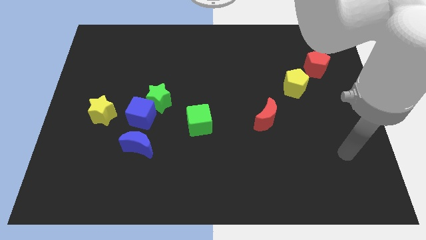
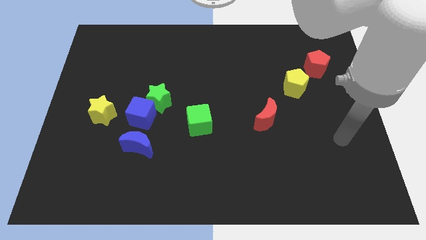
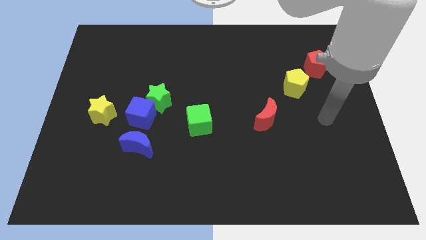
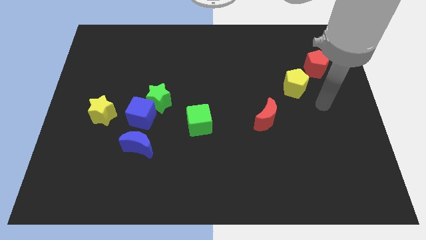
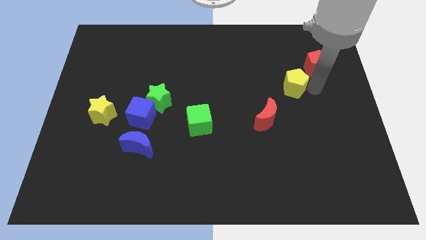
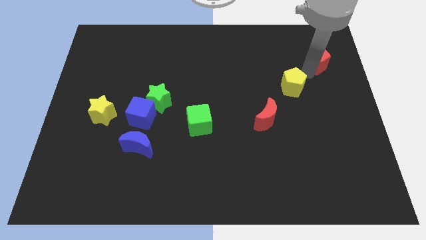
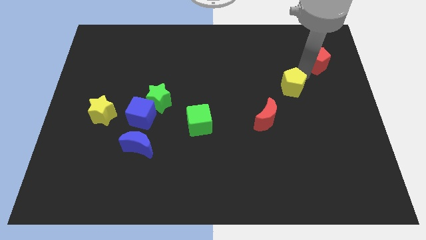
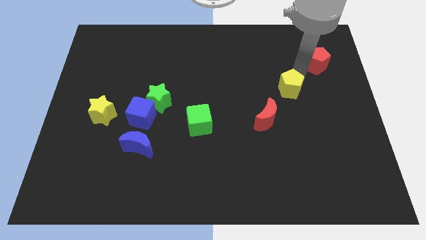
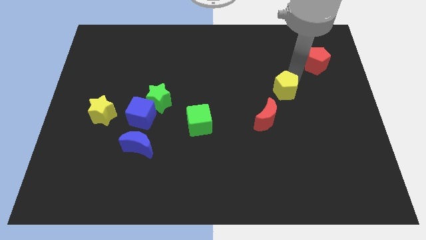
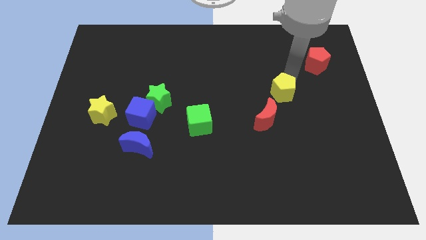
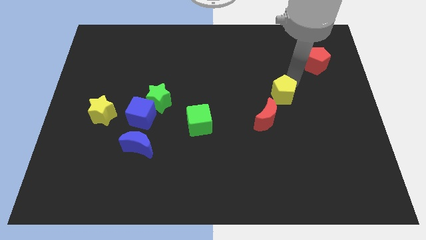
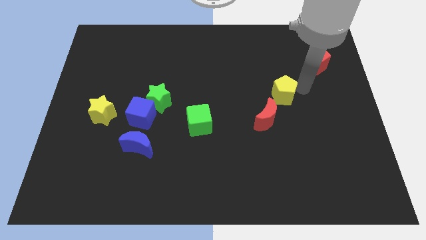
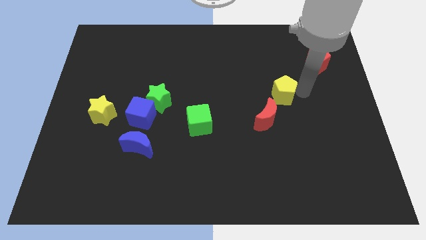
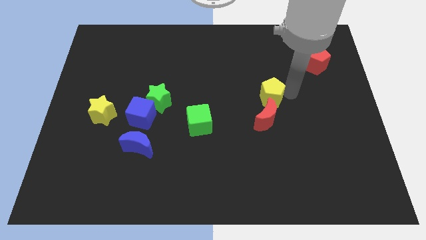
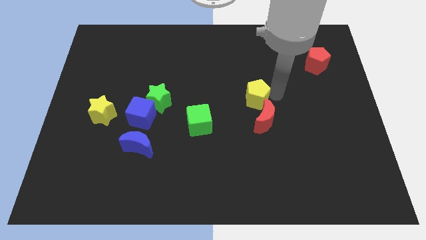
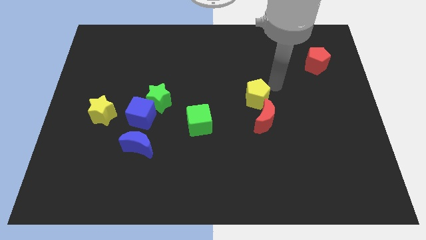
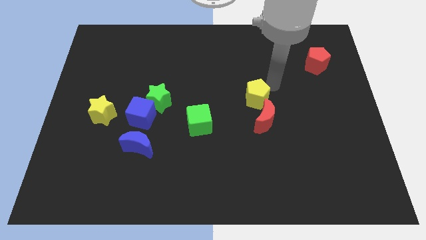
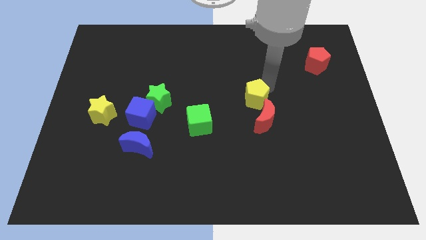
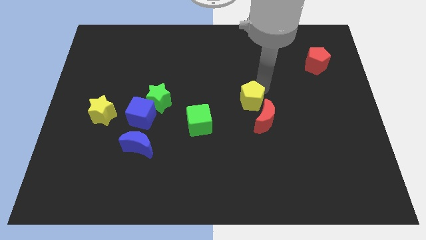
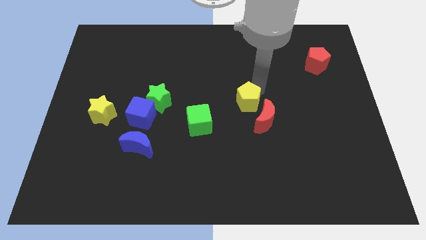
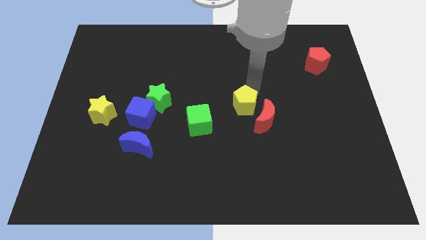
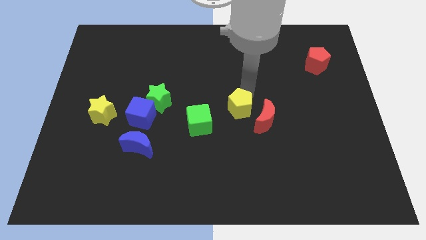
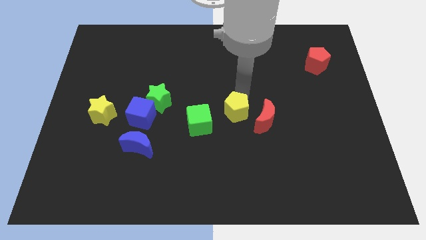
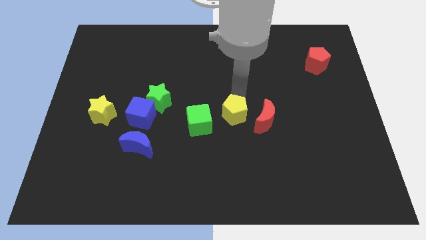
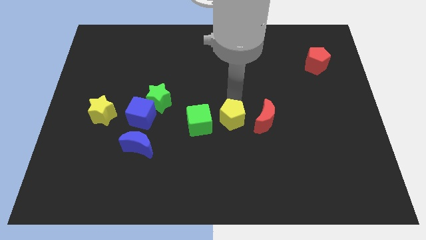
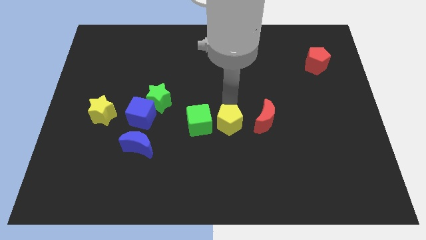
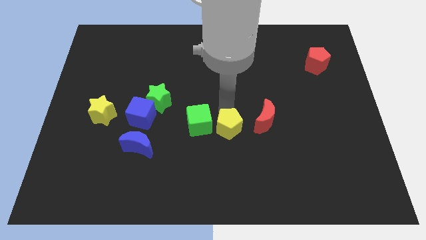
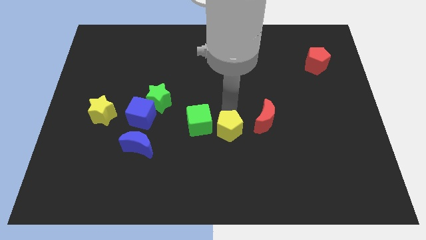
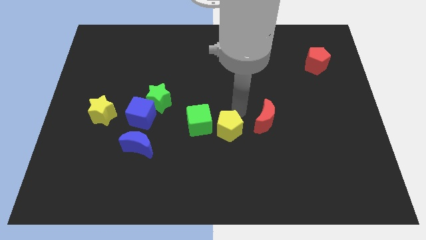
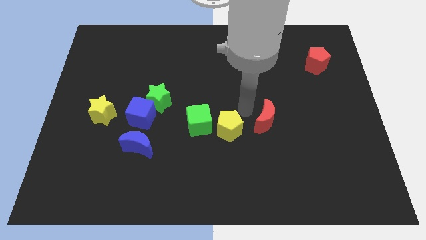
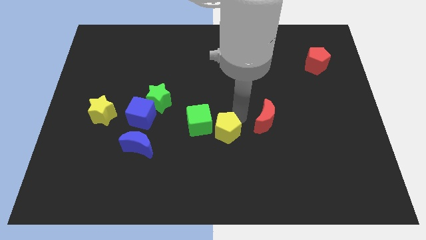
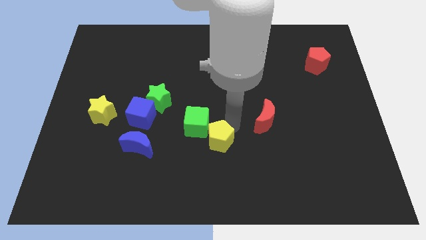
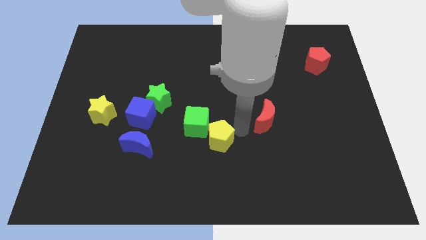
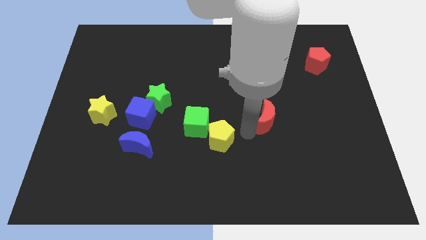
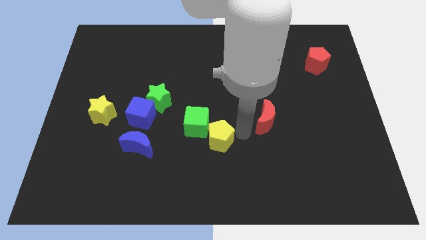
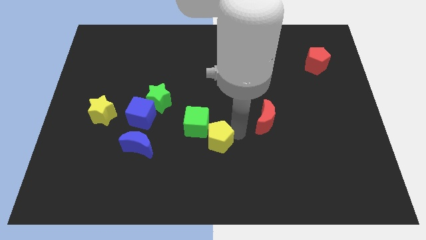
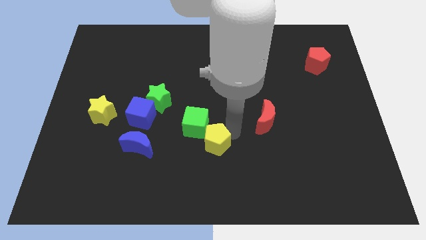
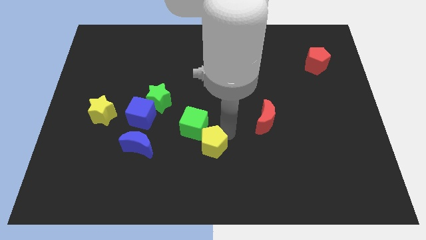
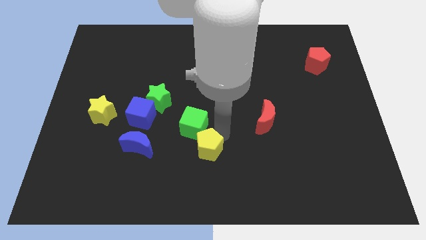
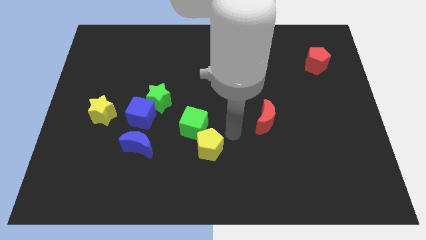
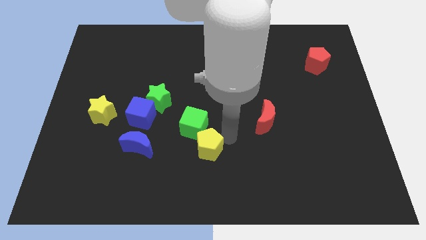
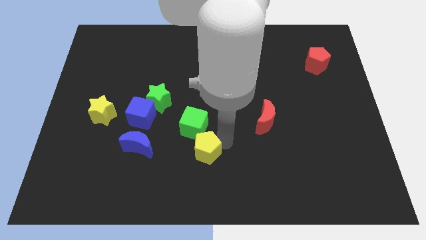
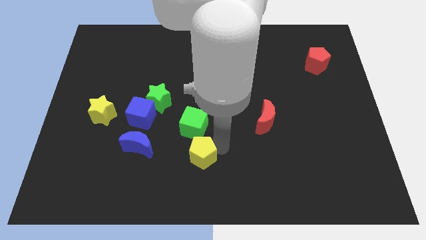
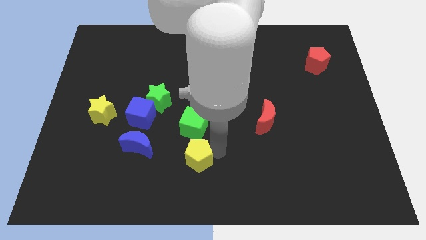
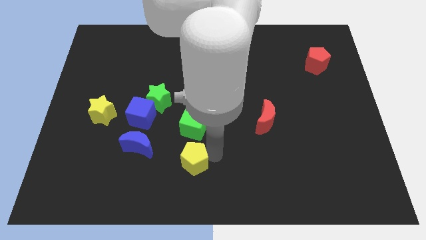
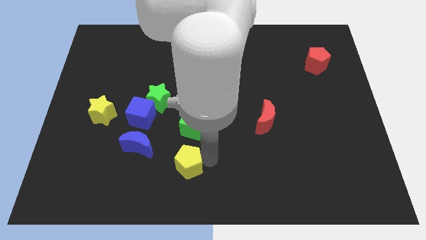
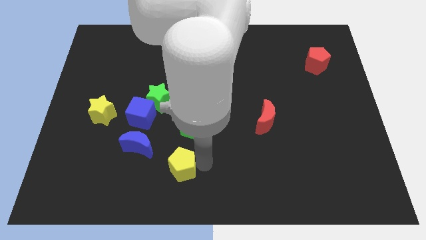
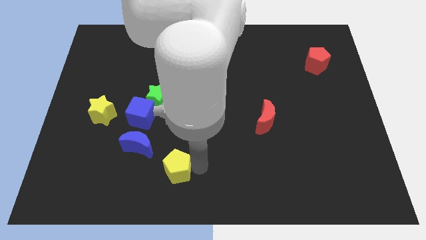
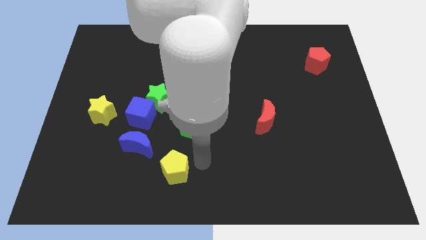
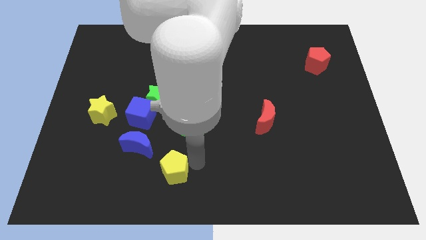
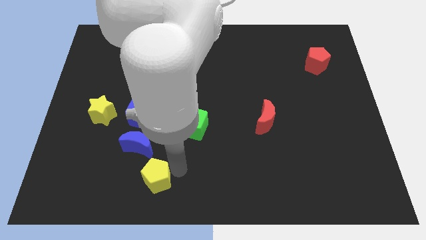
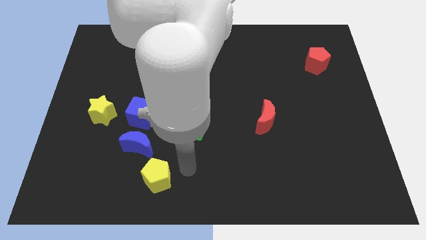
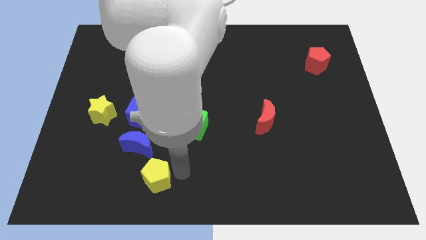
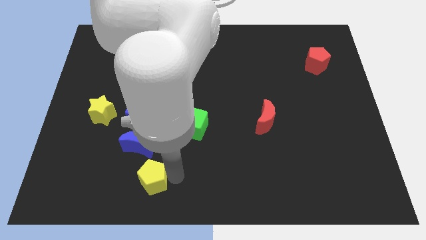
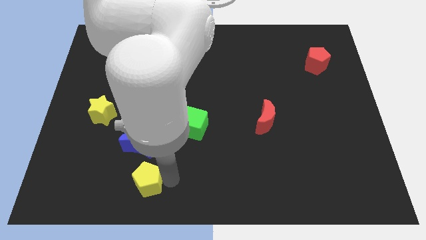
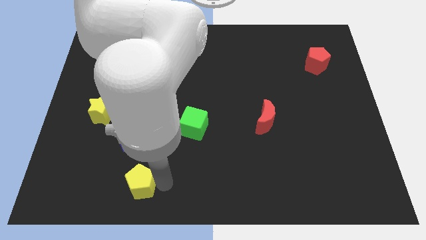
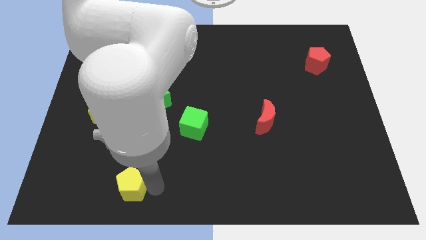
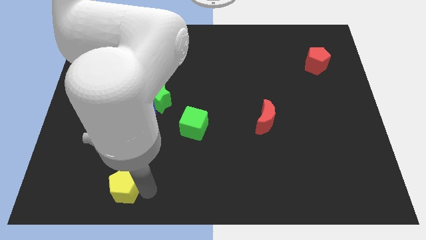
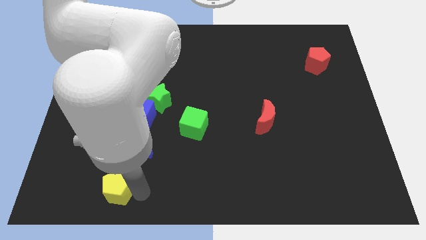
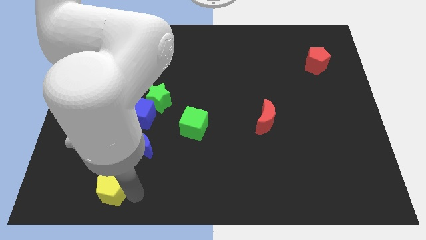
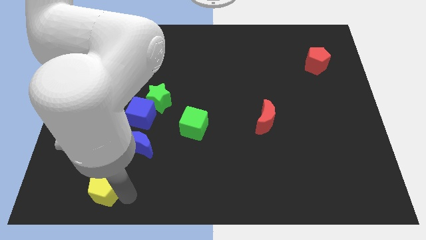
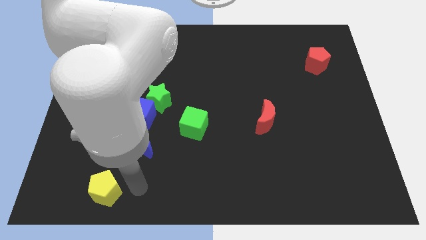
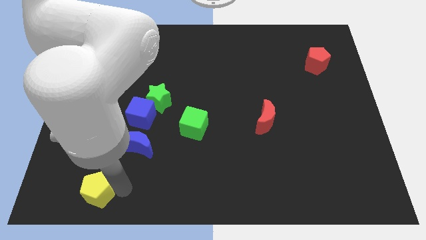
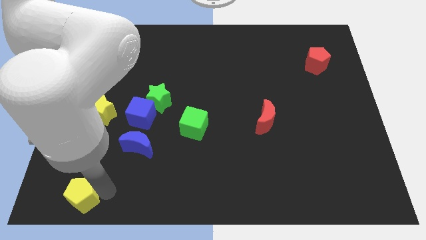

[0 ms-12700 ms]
push the yellow pentagon to the lower left corner
